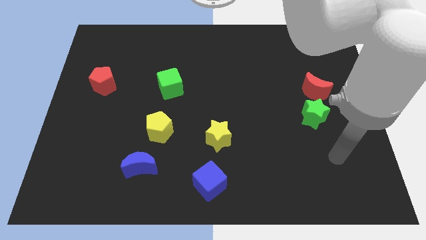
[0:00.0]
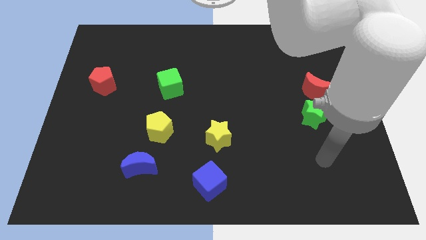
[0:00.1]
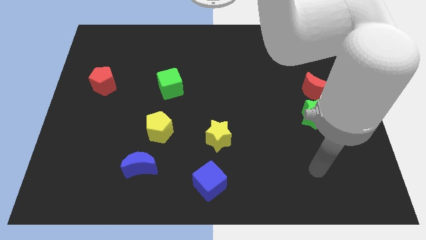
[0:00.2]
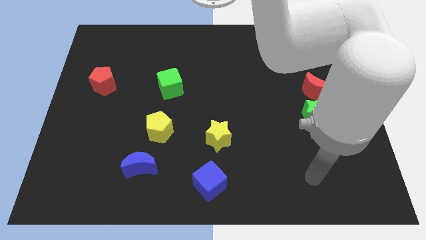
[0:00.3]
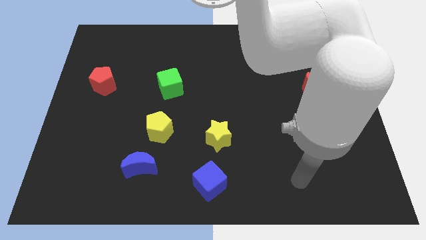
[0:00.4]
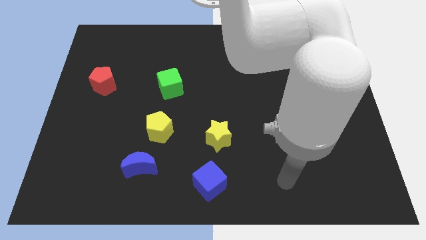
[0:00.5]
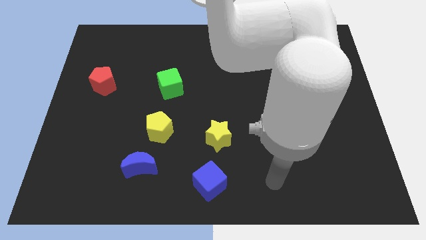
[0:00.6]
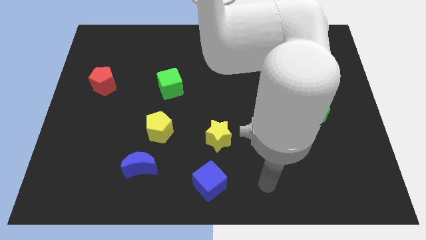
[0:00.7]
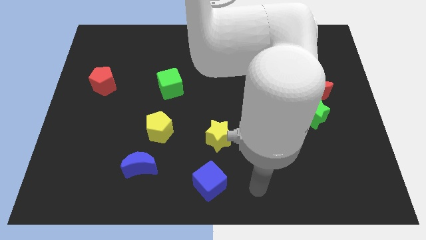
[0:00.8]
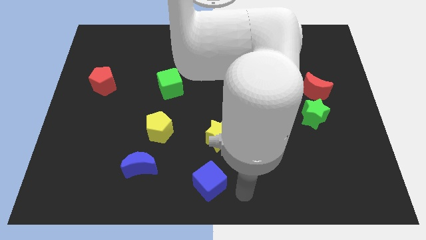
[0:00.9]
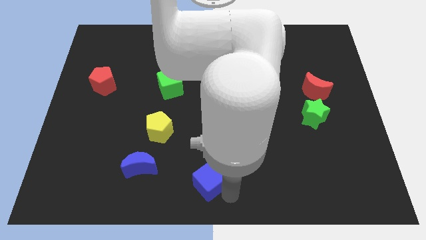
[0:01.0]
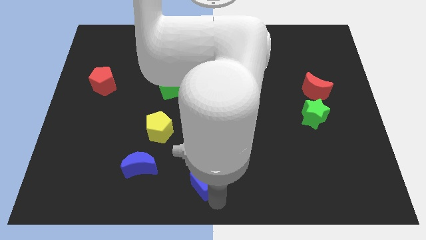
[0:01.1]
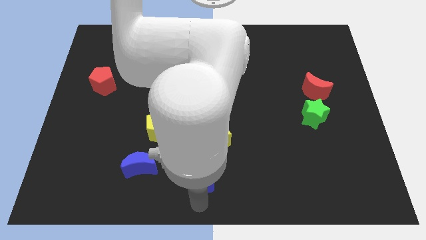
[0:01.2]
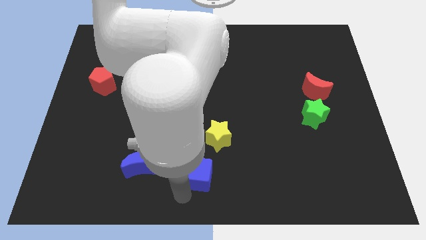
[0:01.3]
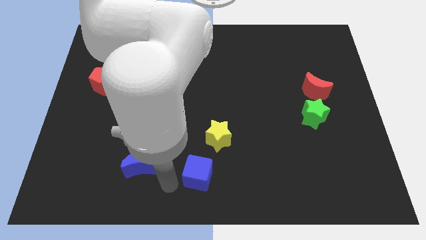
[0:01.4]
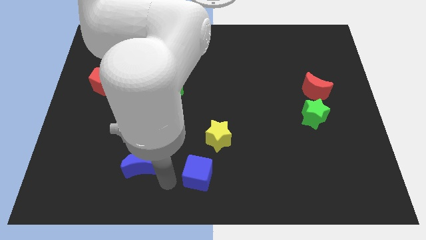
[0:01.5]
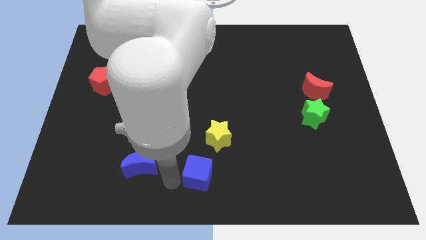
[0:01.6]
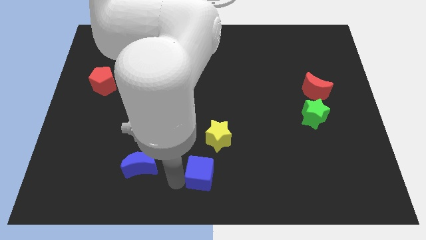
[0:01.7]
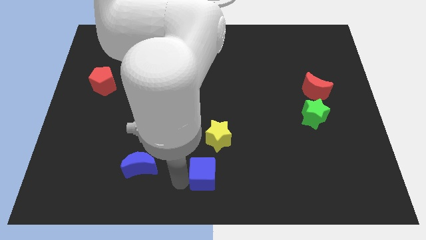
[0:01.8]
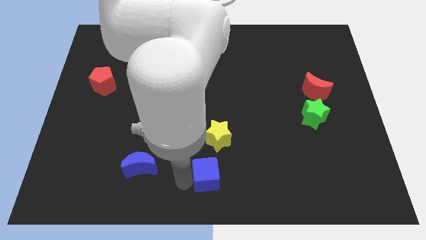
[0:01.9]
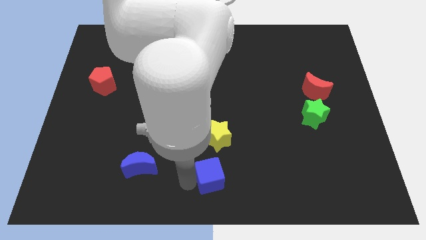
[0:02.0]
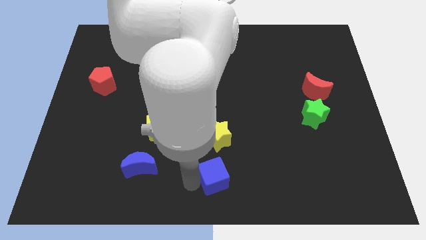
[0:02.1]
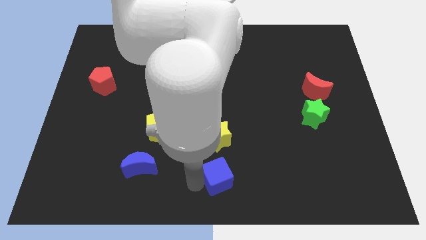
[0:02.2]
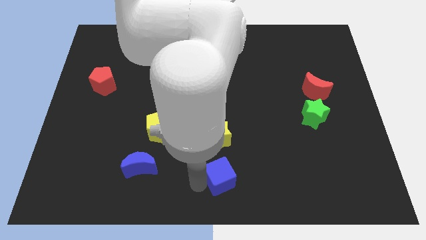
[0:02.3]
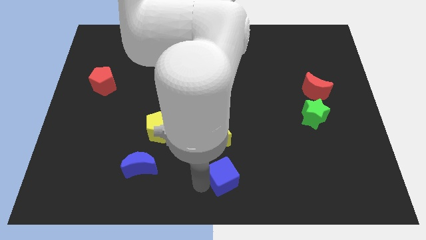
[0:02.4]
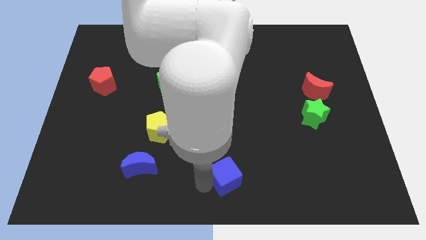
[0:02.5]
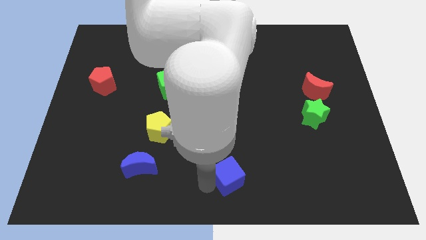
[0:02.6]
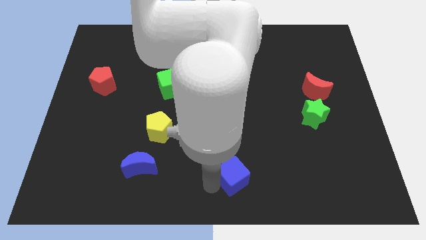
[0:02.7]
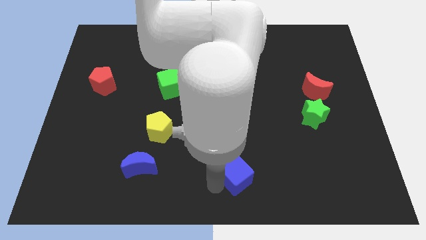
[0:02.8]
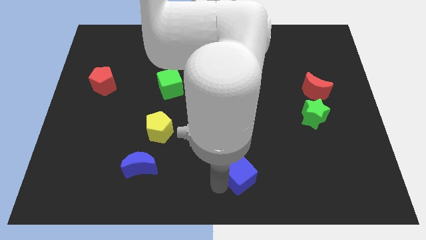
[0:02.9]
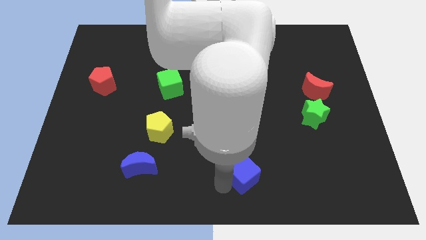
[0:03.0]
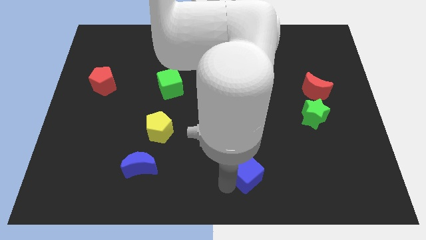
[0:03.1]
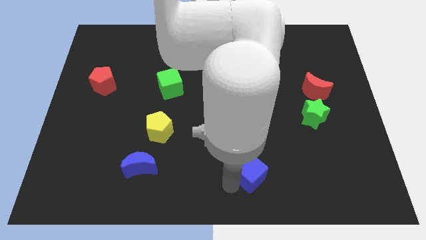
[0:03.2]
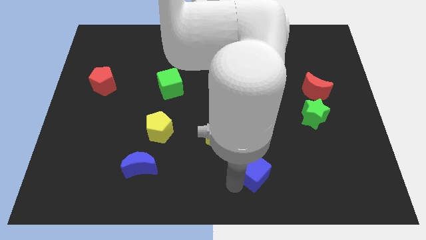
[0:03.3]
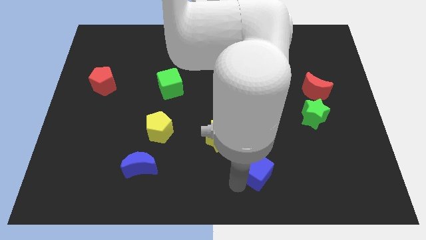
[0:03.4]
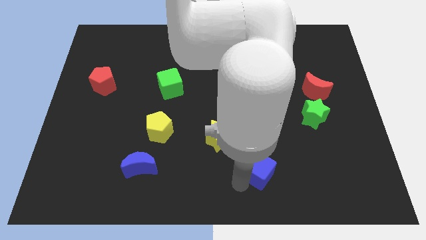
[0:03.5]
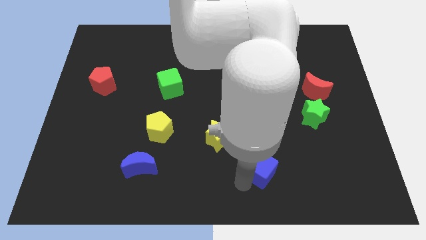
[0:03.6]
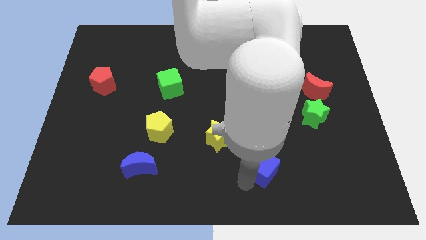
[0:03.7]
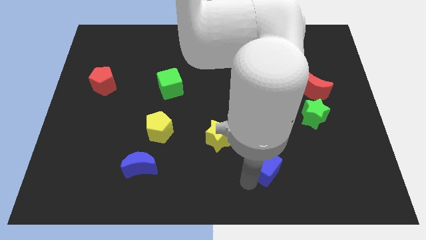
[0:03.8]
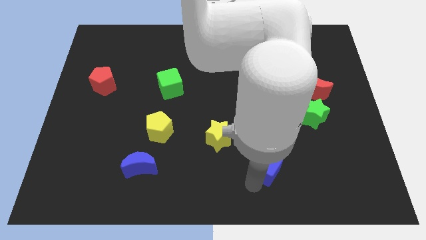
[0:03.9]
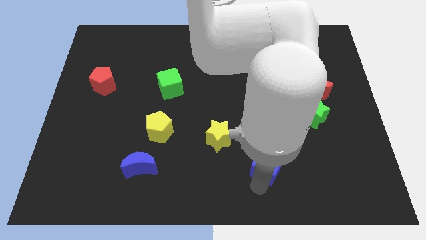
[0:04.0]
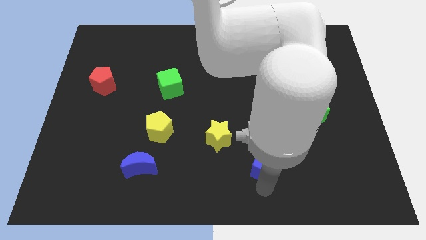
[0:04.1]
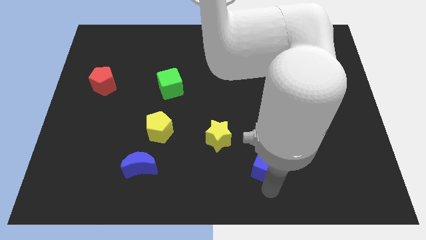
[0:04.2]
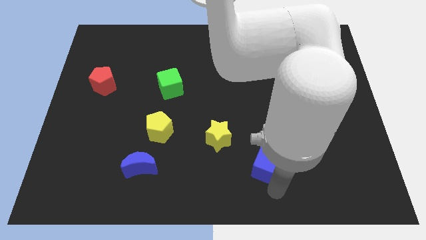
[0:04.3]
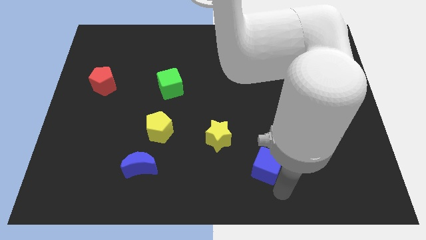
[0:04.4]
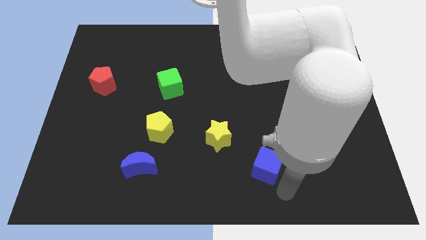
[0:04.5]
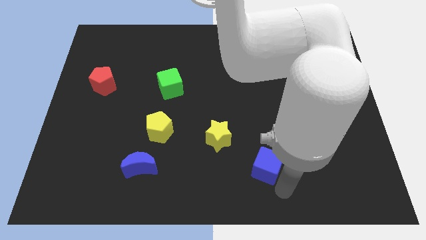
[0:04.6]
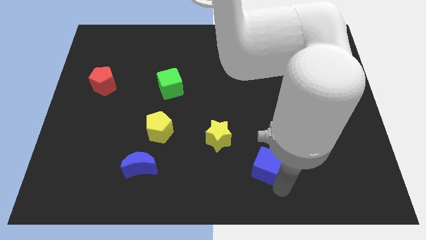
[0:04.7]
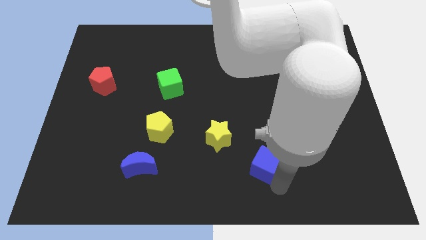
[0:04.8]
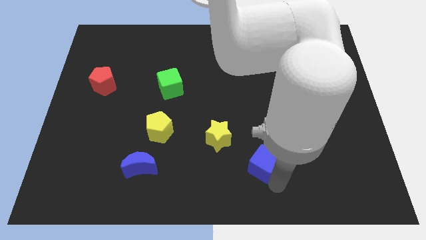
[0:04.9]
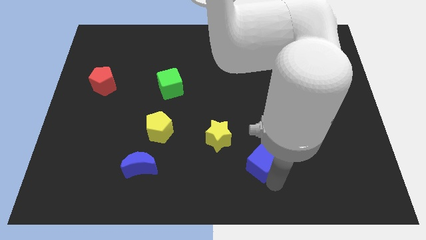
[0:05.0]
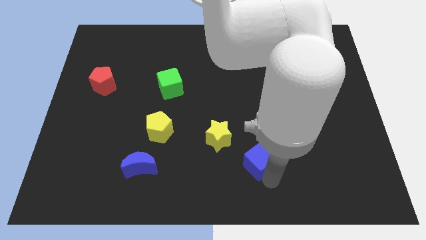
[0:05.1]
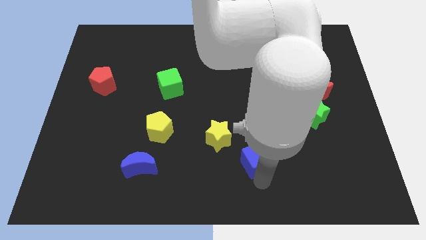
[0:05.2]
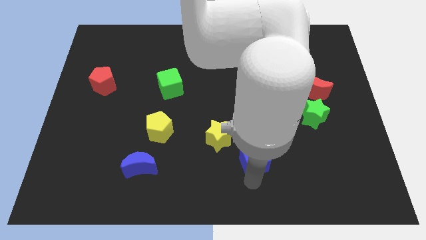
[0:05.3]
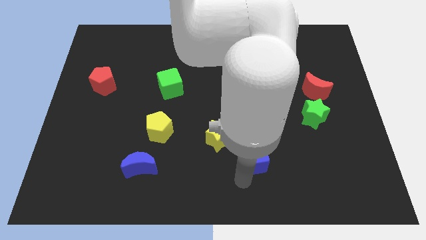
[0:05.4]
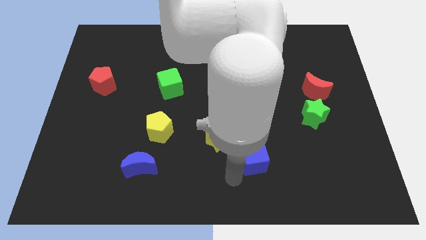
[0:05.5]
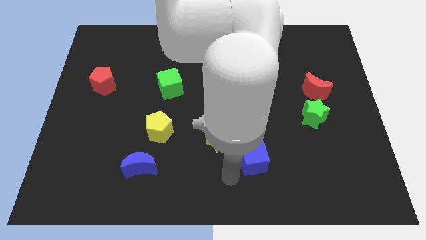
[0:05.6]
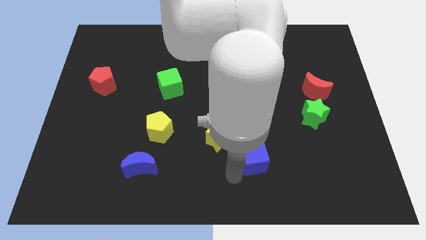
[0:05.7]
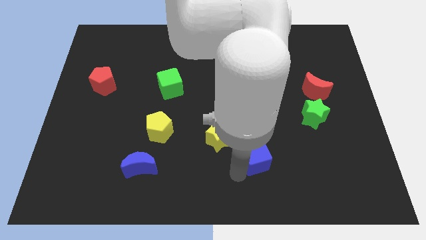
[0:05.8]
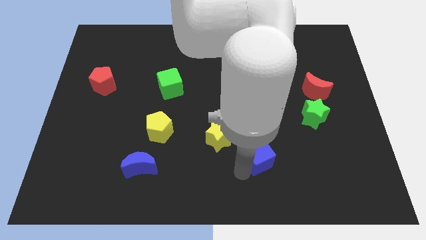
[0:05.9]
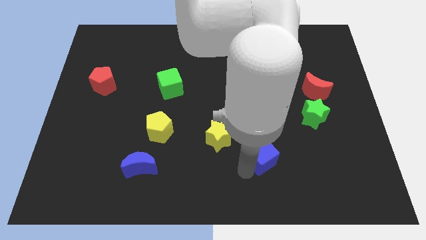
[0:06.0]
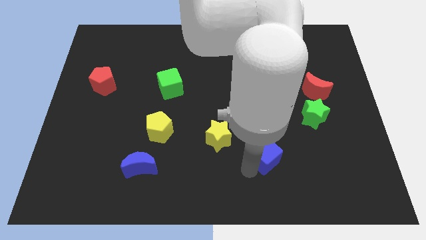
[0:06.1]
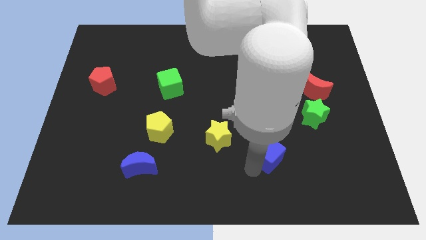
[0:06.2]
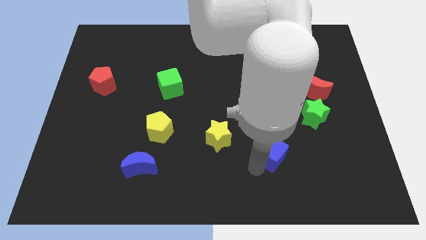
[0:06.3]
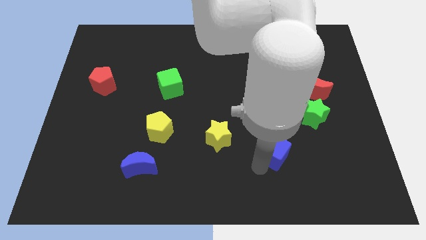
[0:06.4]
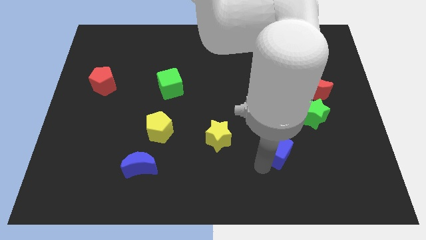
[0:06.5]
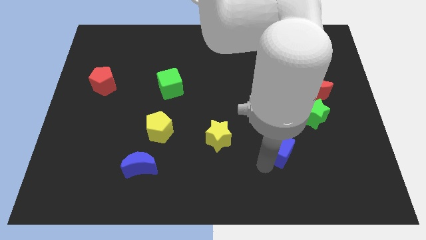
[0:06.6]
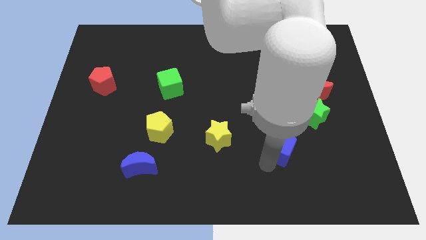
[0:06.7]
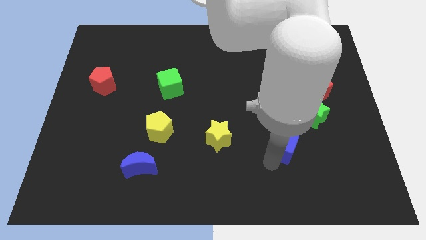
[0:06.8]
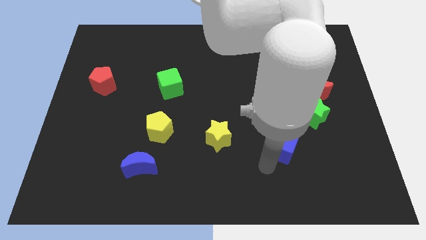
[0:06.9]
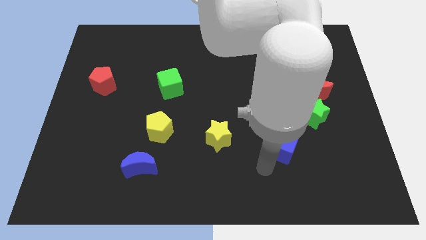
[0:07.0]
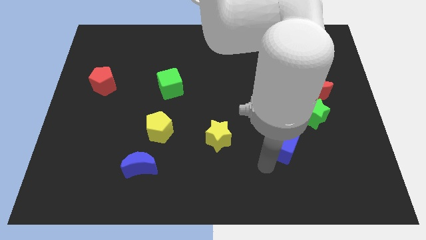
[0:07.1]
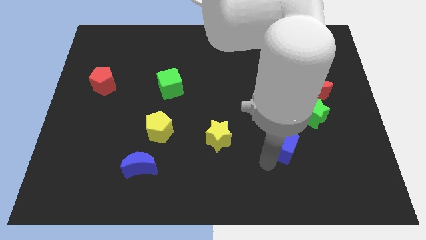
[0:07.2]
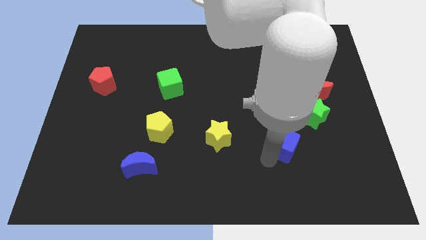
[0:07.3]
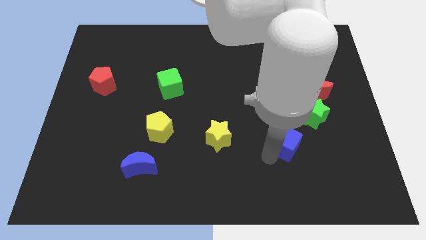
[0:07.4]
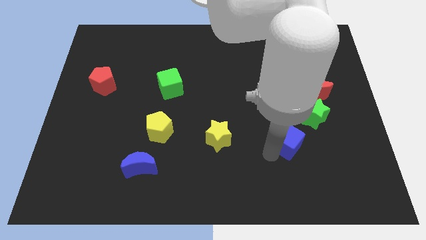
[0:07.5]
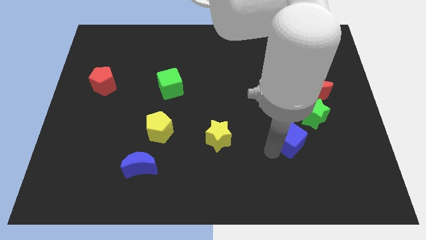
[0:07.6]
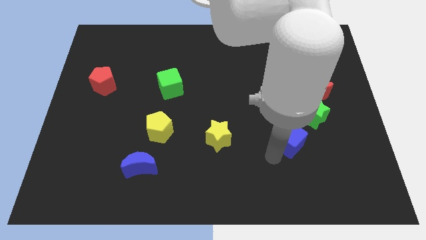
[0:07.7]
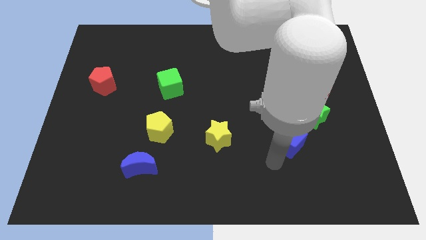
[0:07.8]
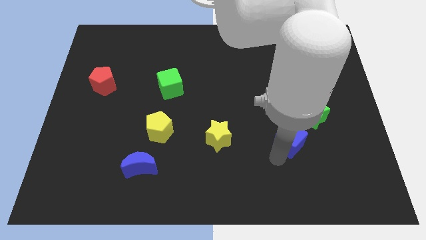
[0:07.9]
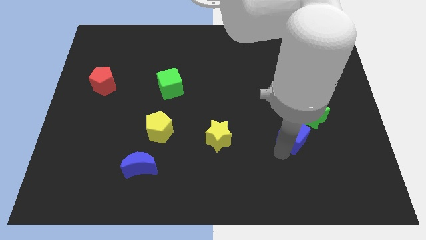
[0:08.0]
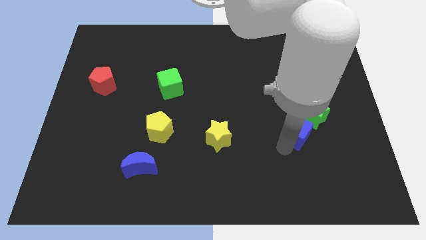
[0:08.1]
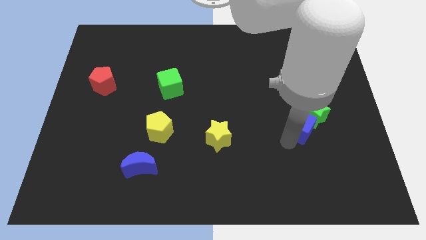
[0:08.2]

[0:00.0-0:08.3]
put the blue cube close to the green star
